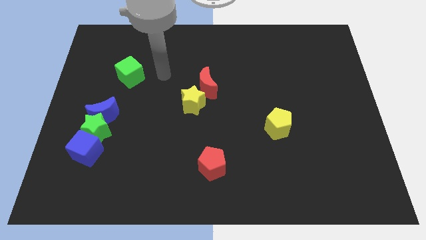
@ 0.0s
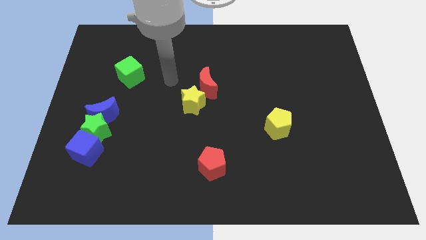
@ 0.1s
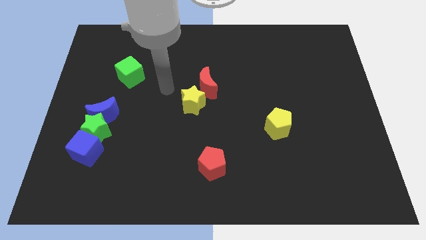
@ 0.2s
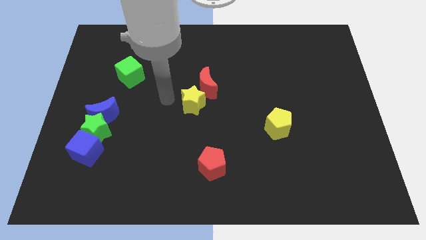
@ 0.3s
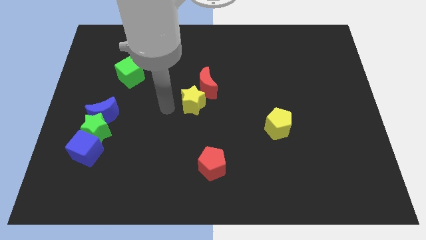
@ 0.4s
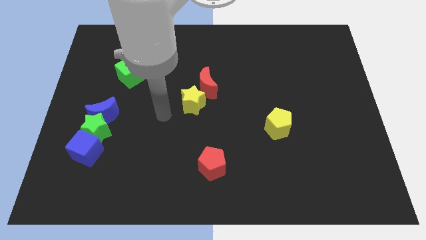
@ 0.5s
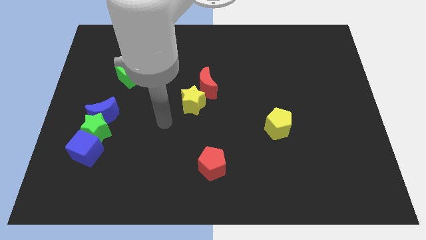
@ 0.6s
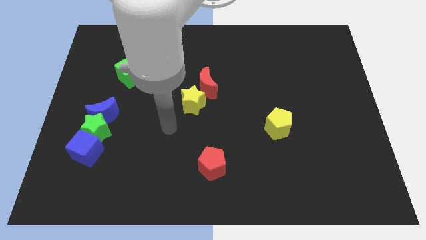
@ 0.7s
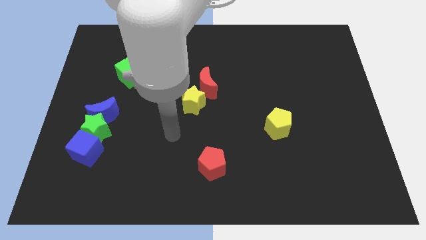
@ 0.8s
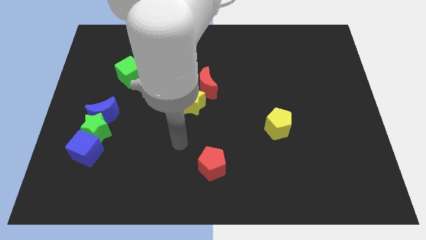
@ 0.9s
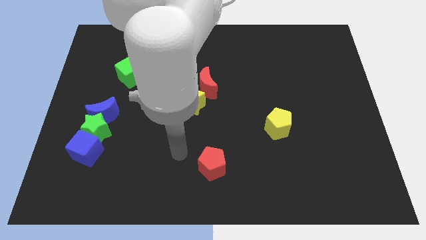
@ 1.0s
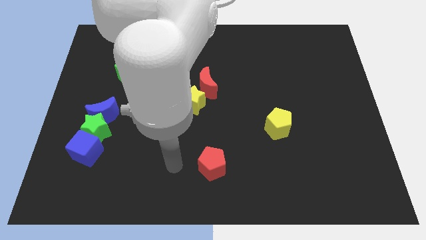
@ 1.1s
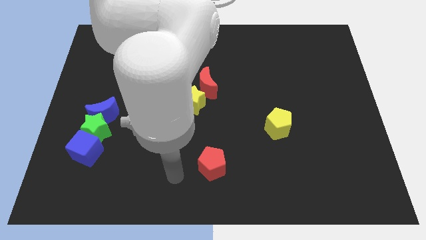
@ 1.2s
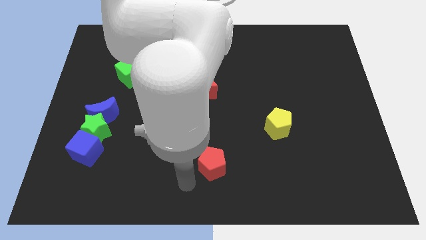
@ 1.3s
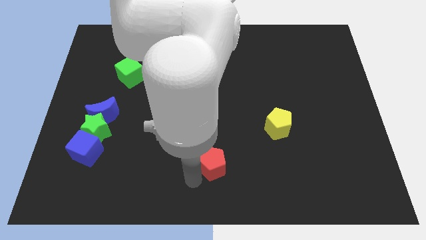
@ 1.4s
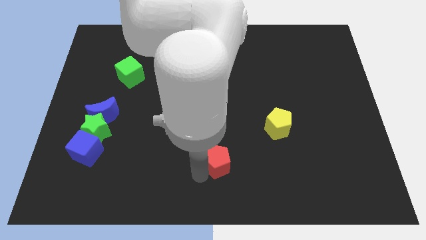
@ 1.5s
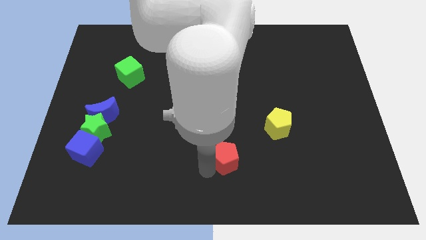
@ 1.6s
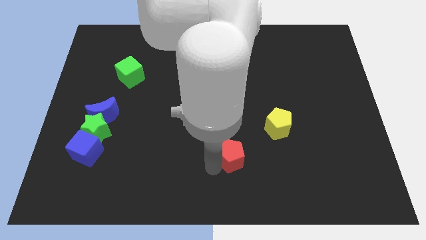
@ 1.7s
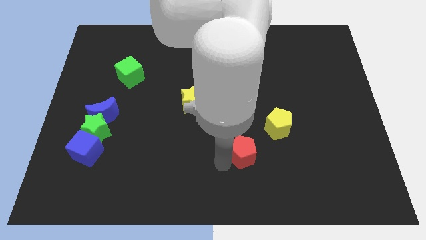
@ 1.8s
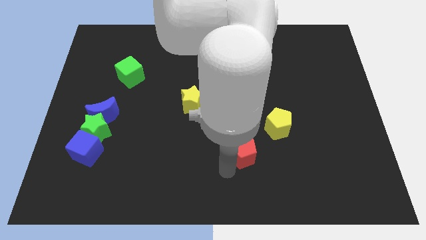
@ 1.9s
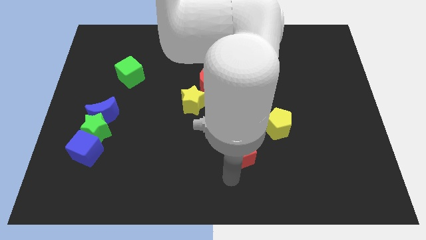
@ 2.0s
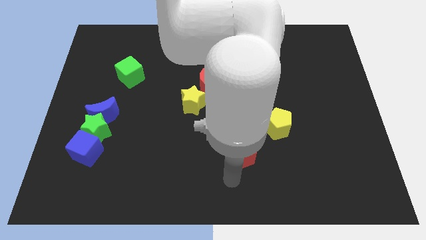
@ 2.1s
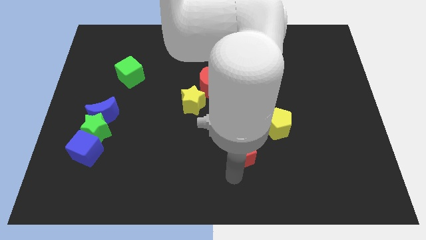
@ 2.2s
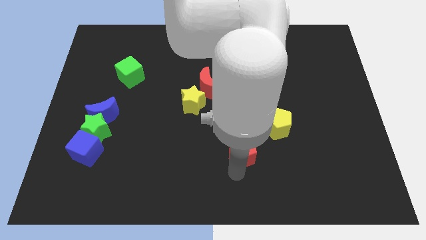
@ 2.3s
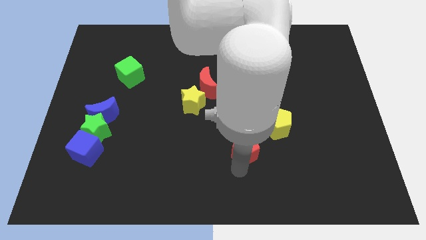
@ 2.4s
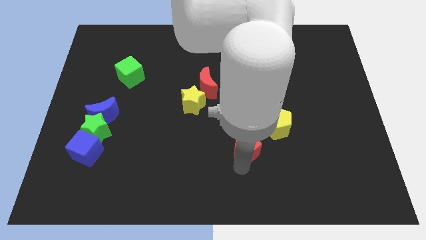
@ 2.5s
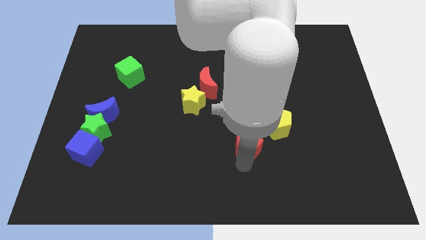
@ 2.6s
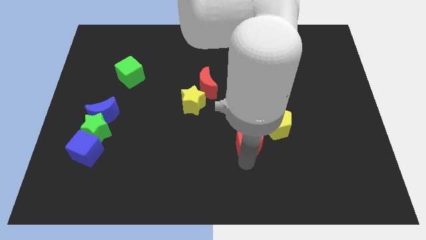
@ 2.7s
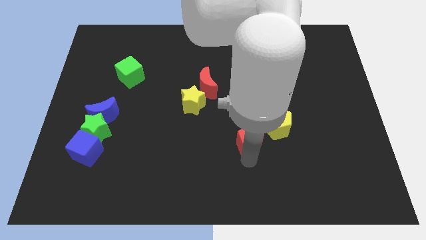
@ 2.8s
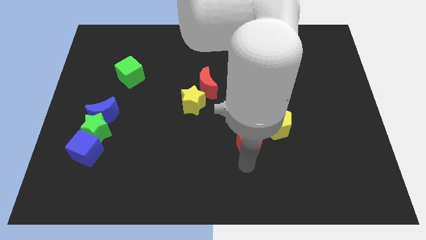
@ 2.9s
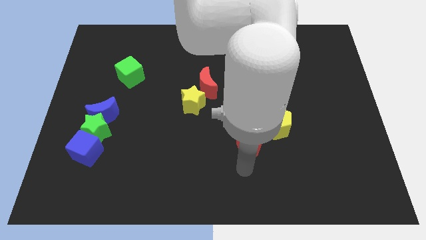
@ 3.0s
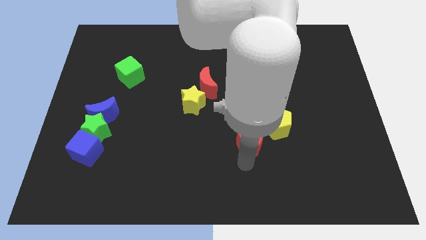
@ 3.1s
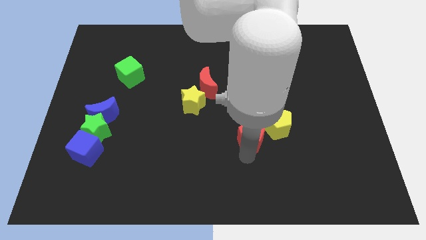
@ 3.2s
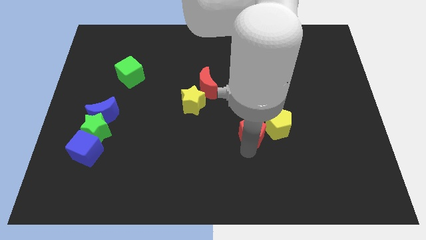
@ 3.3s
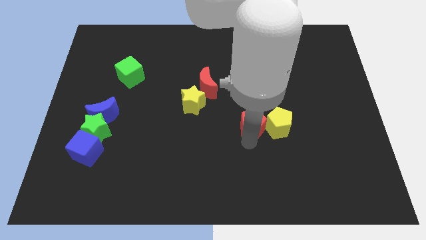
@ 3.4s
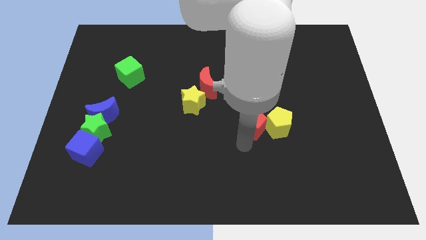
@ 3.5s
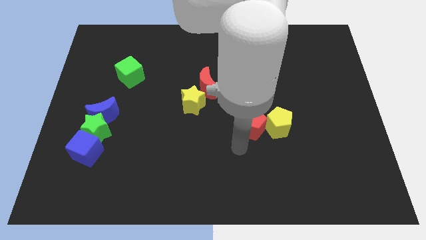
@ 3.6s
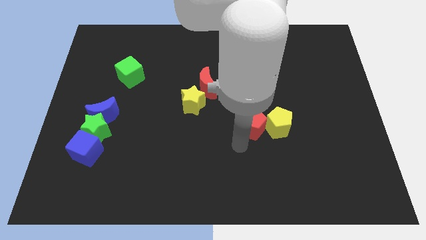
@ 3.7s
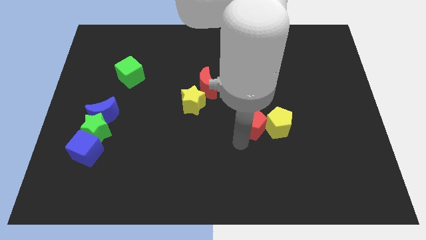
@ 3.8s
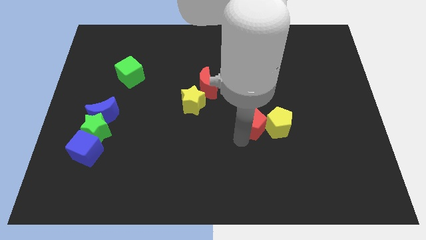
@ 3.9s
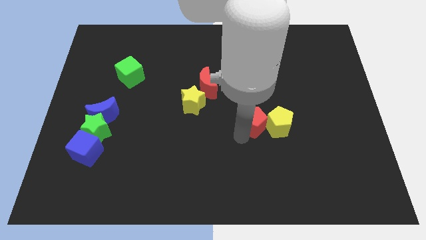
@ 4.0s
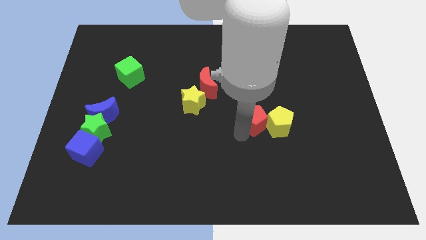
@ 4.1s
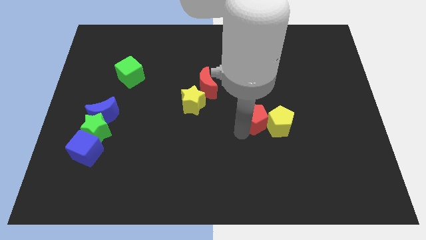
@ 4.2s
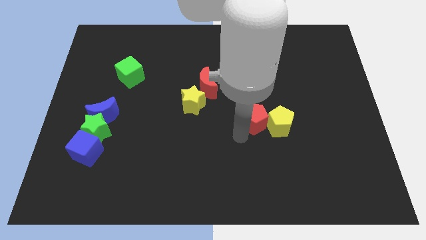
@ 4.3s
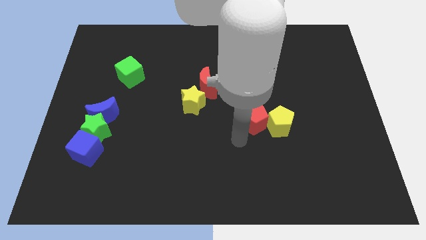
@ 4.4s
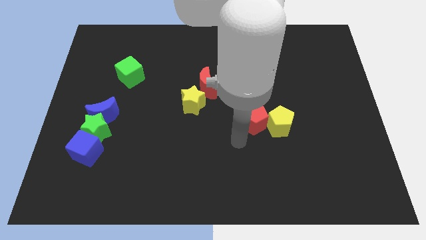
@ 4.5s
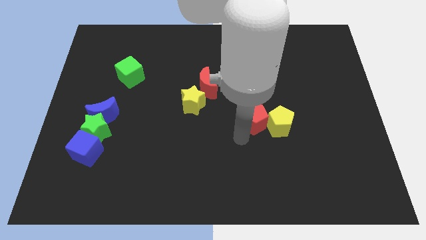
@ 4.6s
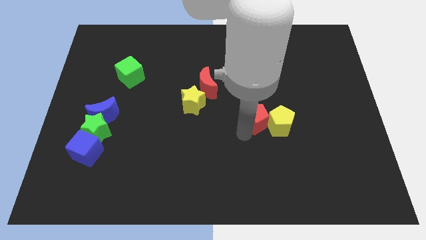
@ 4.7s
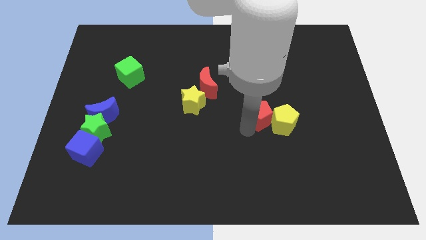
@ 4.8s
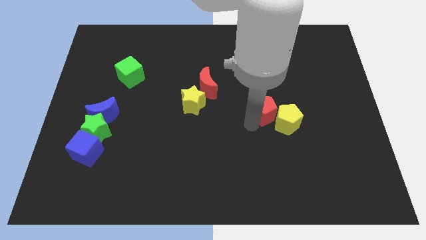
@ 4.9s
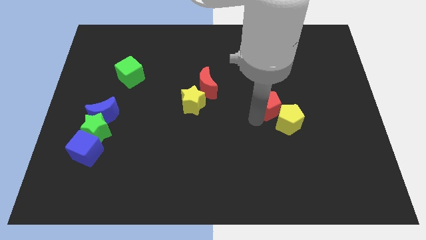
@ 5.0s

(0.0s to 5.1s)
push the red pentagon up and to the right diagonally

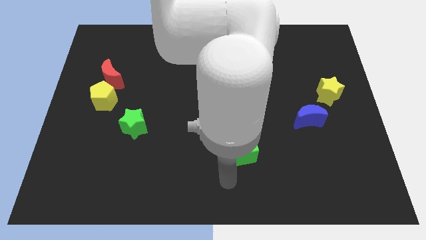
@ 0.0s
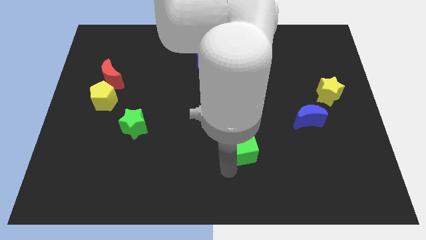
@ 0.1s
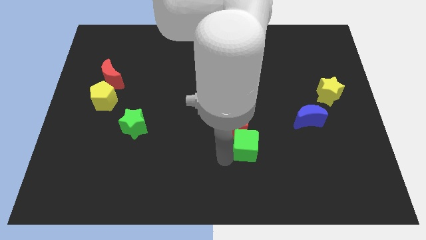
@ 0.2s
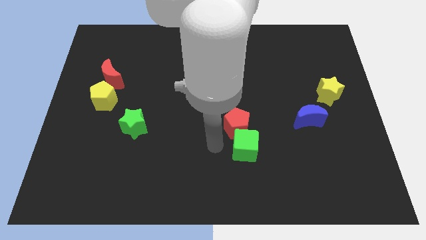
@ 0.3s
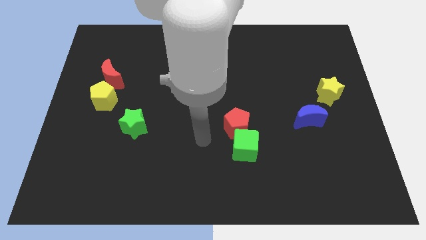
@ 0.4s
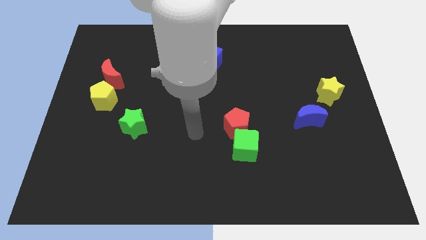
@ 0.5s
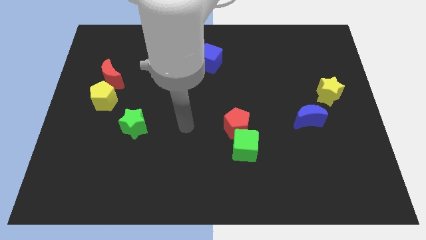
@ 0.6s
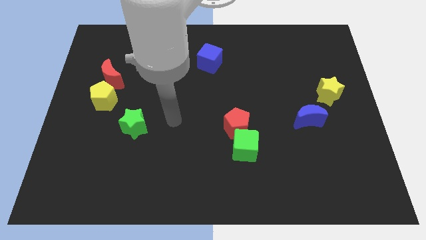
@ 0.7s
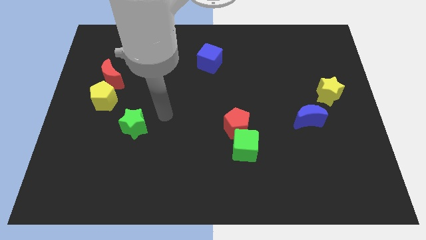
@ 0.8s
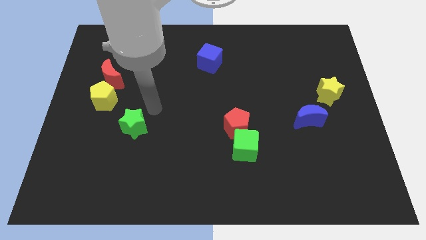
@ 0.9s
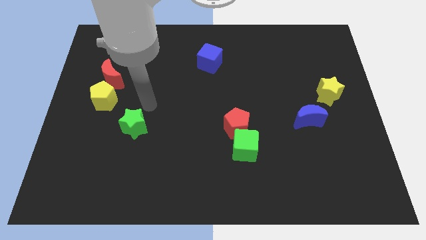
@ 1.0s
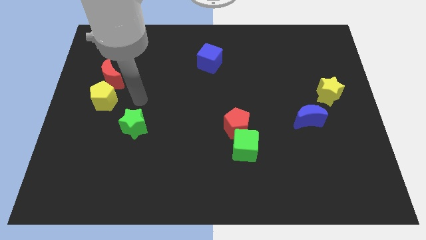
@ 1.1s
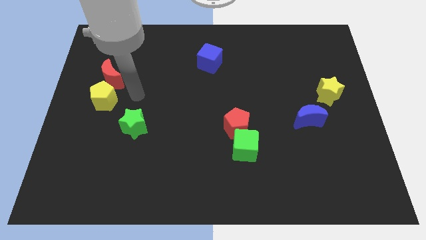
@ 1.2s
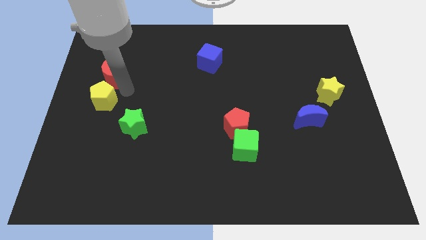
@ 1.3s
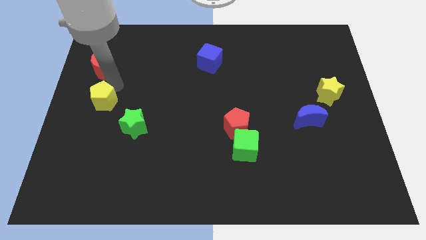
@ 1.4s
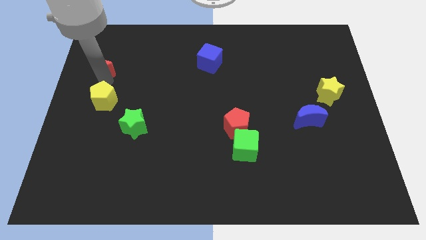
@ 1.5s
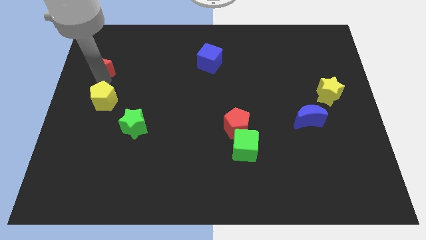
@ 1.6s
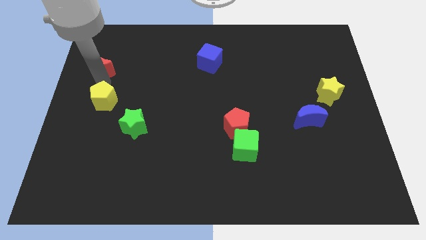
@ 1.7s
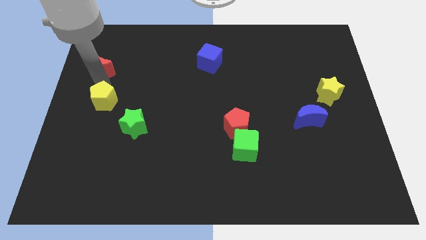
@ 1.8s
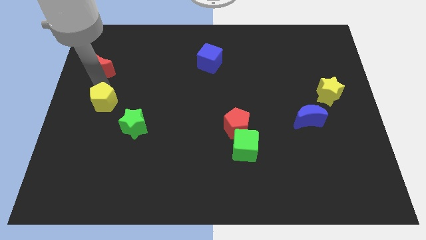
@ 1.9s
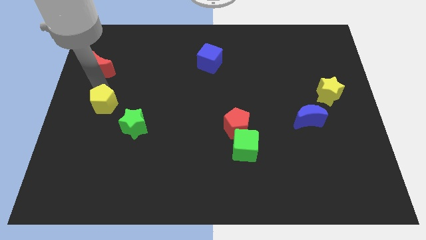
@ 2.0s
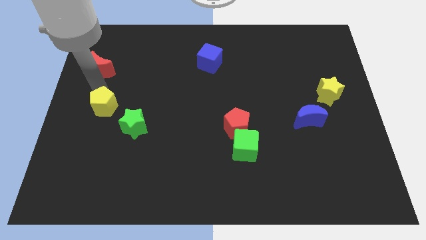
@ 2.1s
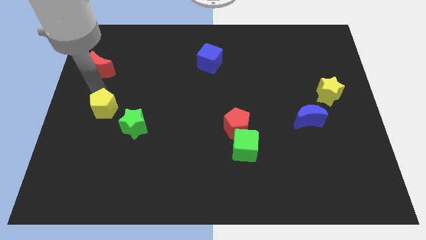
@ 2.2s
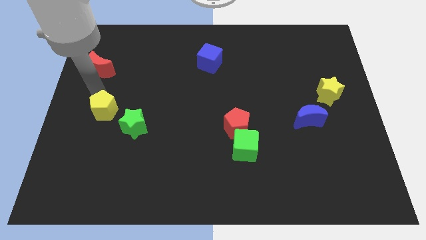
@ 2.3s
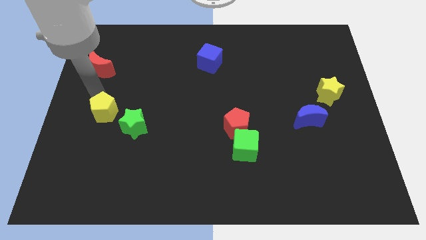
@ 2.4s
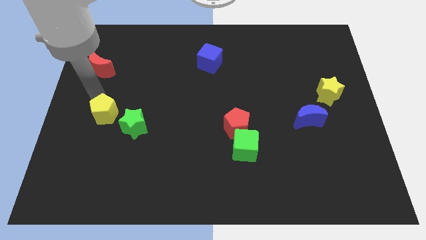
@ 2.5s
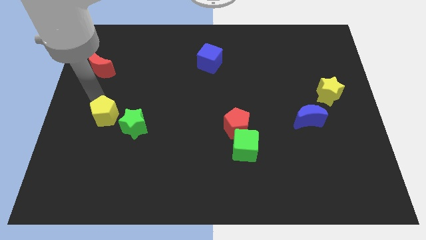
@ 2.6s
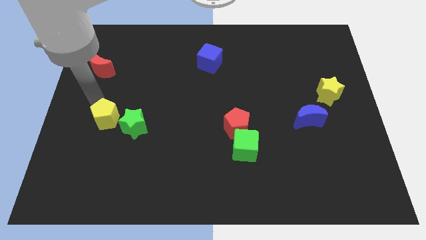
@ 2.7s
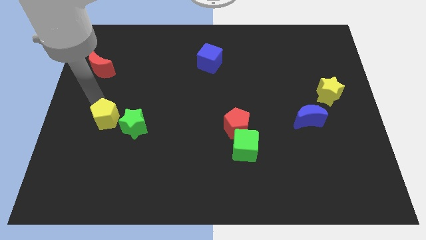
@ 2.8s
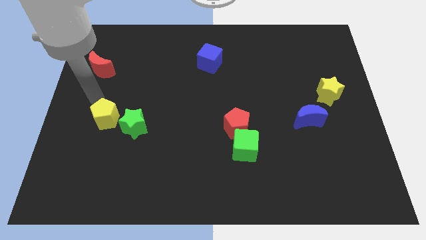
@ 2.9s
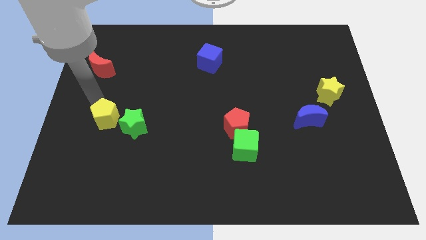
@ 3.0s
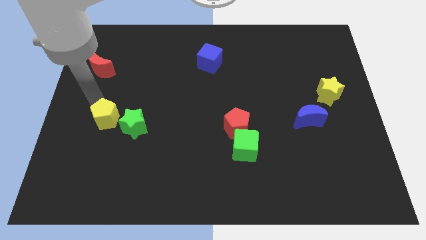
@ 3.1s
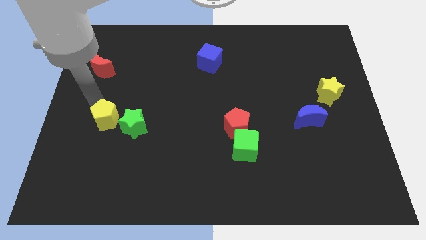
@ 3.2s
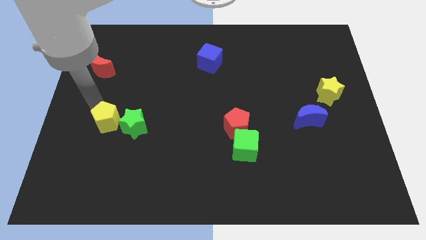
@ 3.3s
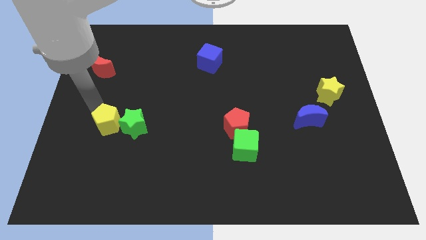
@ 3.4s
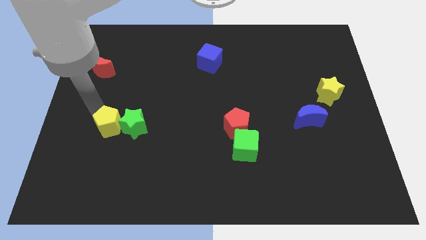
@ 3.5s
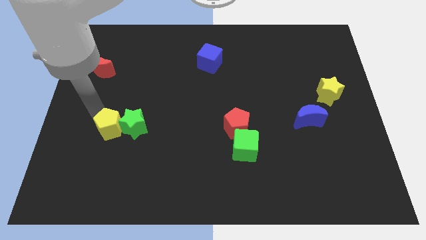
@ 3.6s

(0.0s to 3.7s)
move the yellow pentagon slightly diagonally downwards and right
